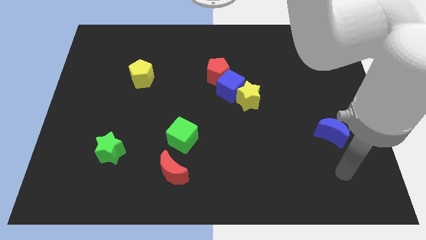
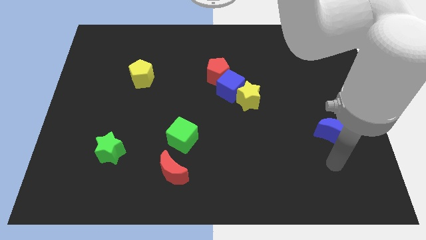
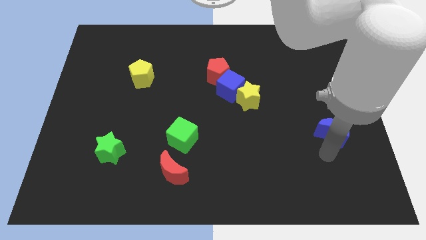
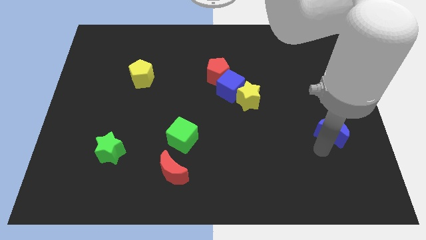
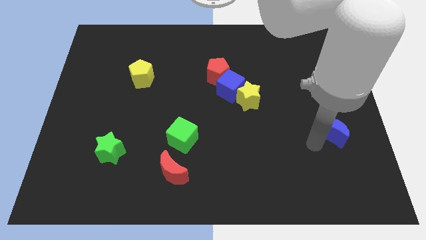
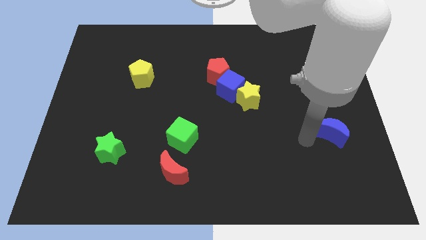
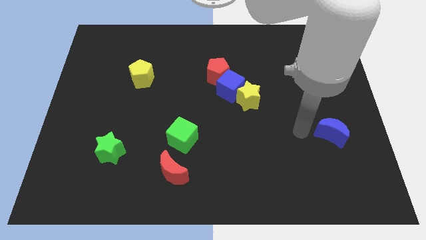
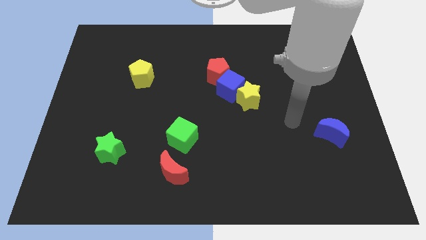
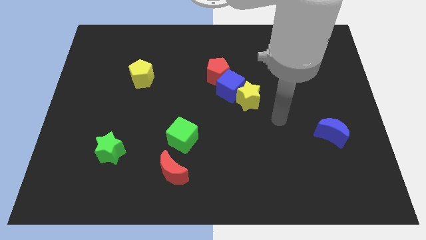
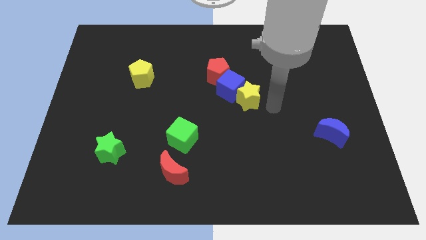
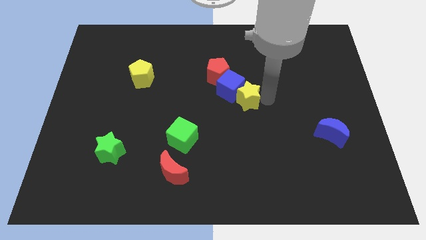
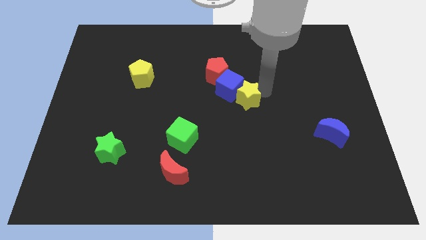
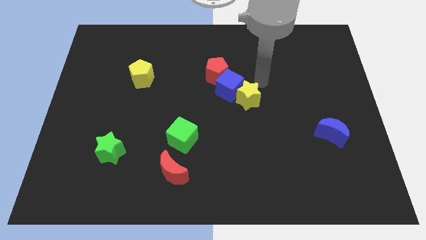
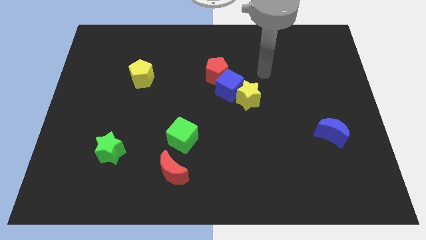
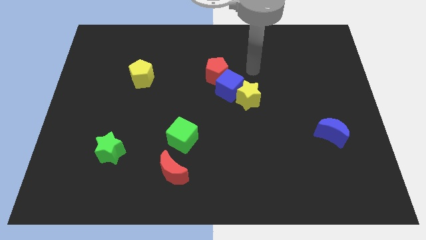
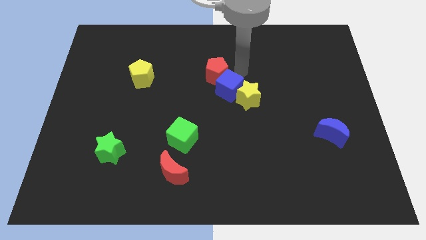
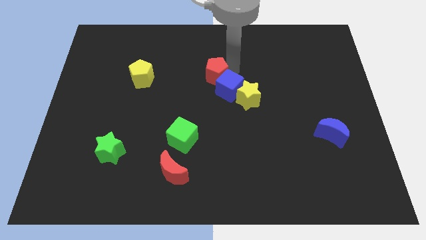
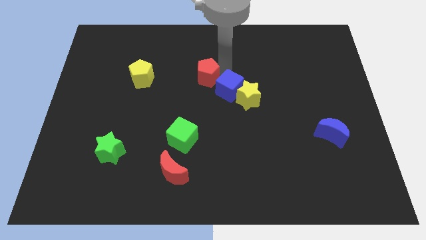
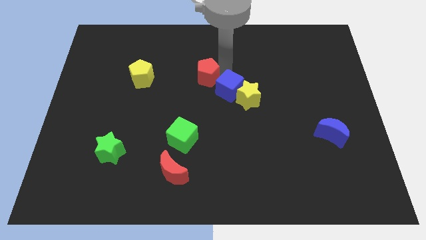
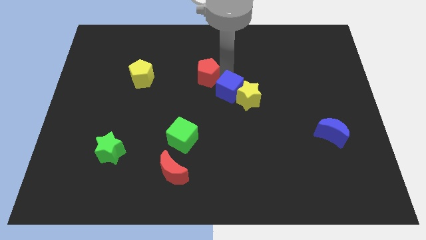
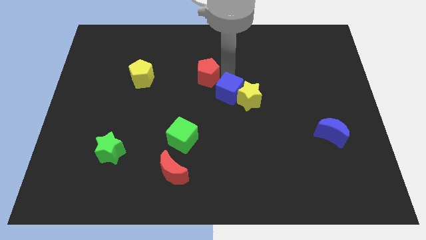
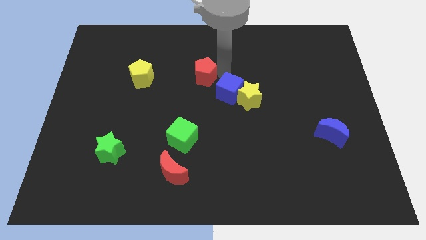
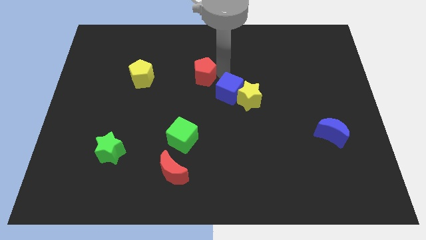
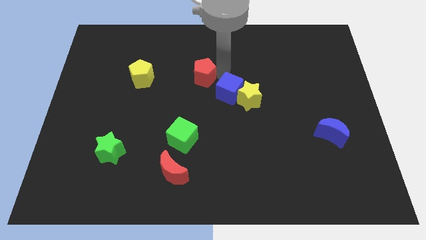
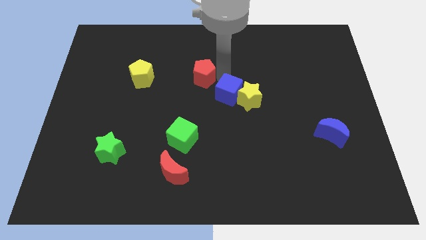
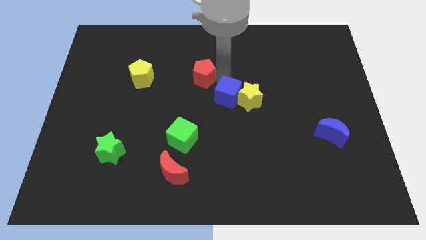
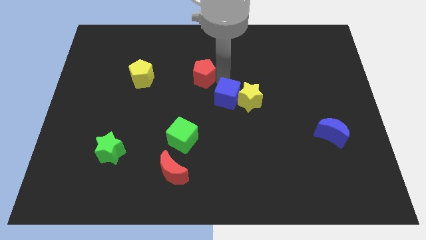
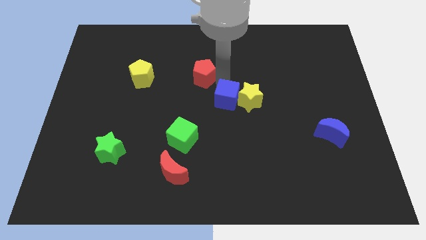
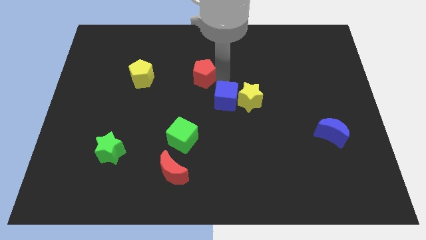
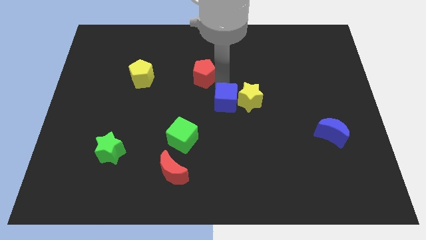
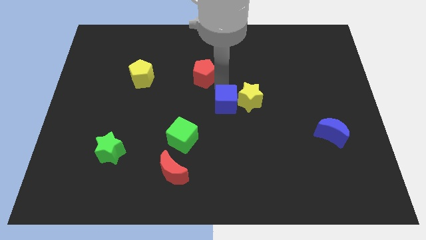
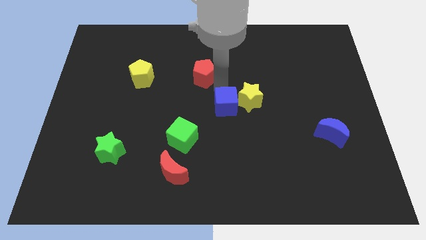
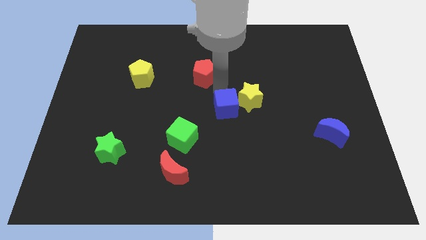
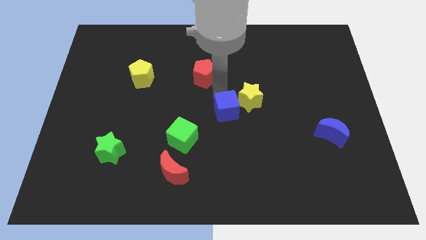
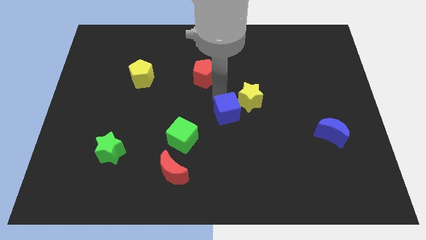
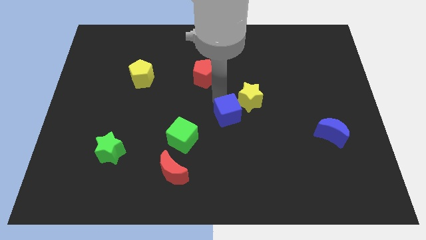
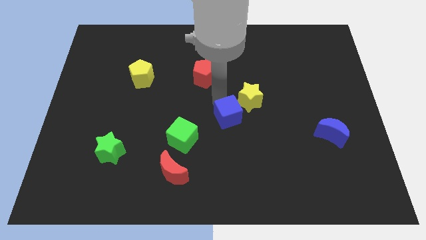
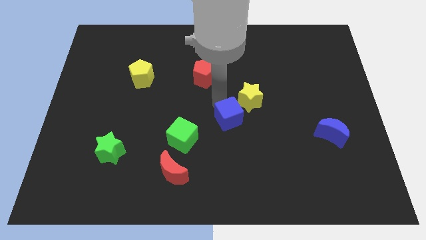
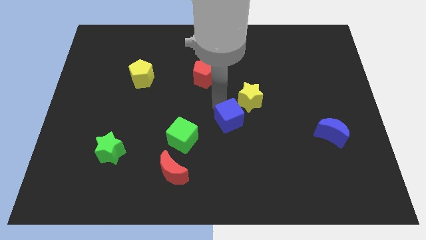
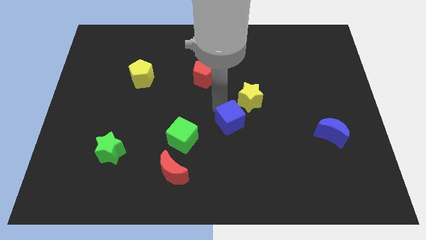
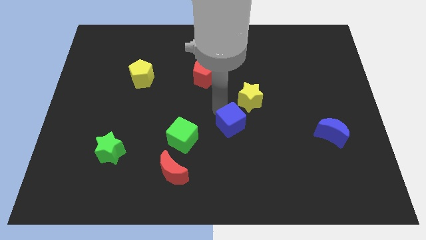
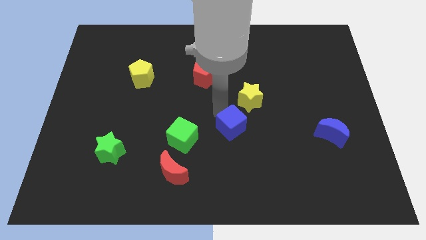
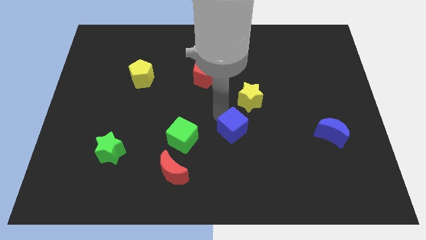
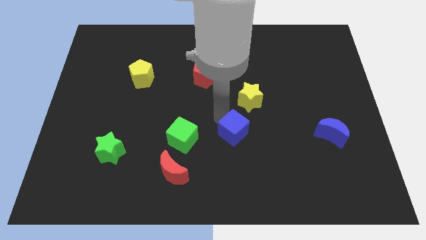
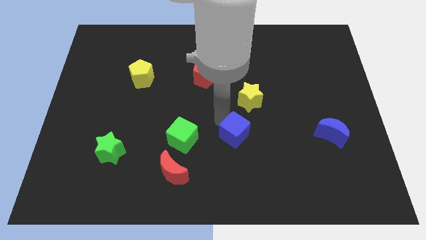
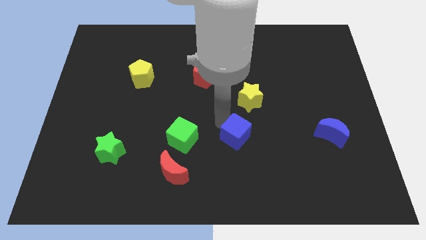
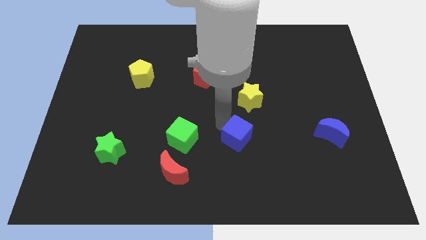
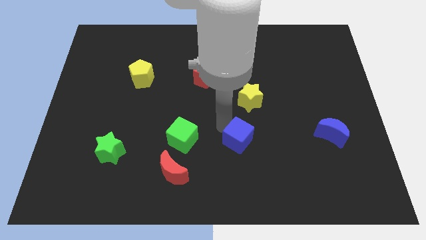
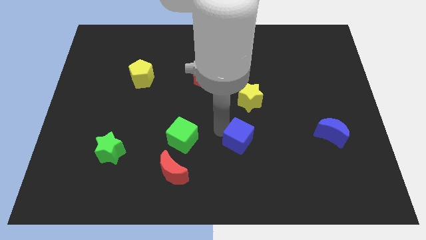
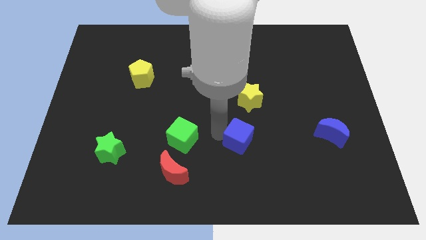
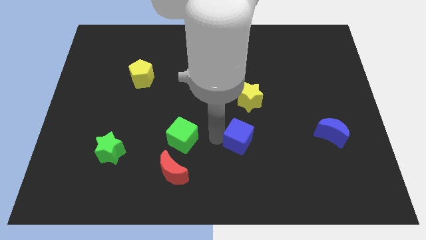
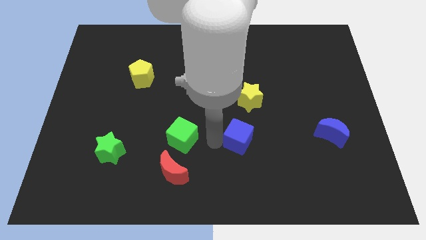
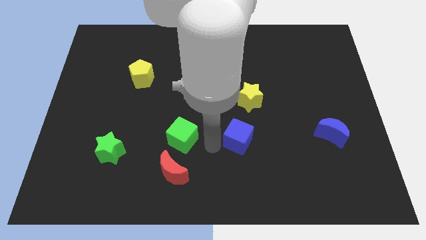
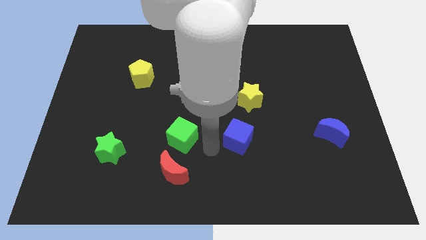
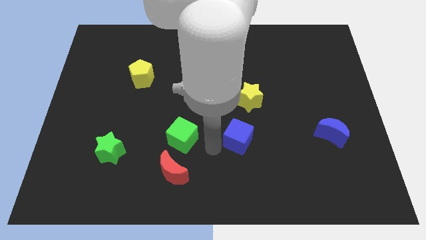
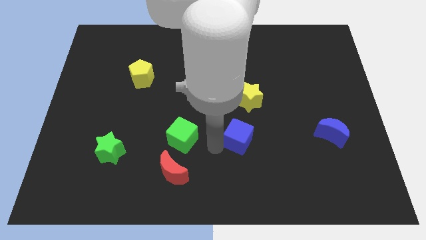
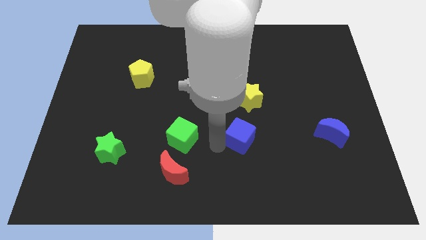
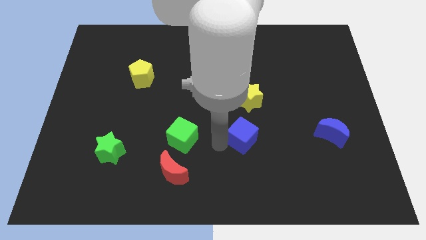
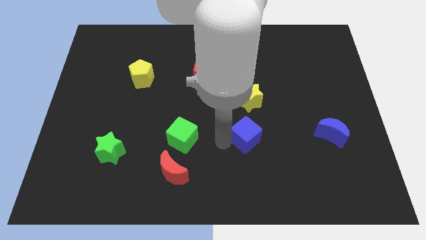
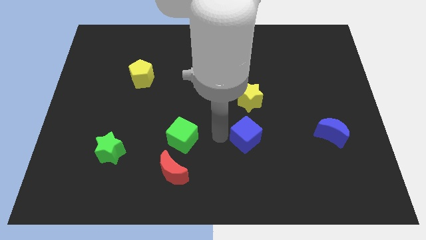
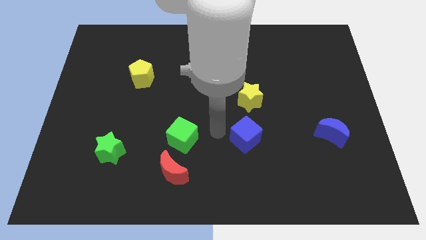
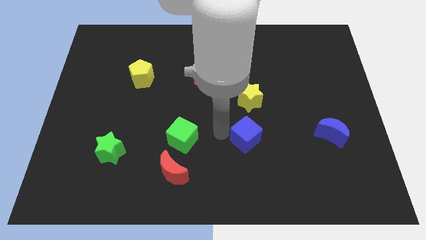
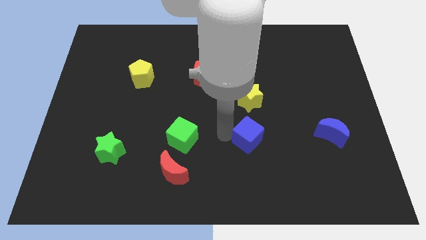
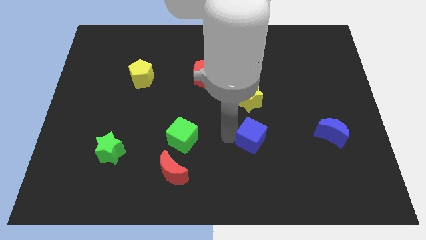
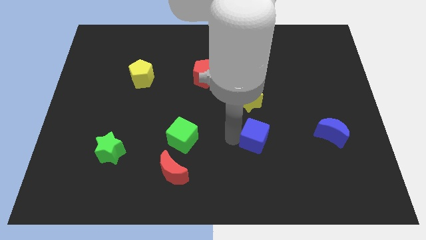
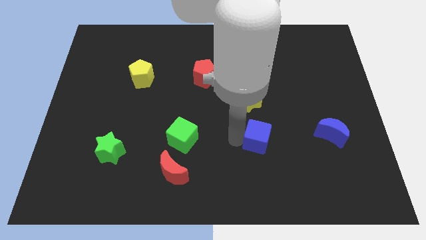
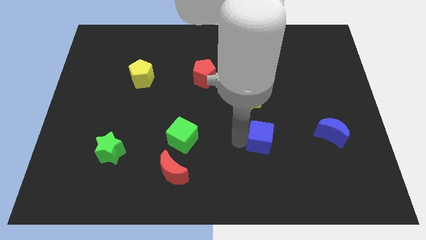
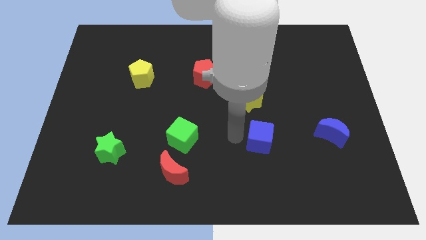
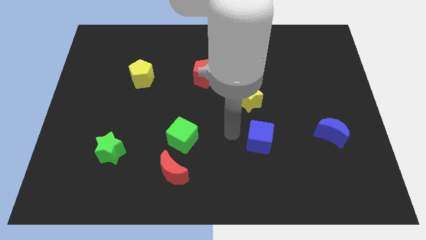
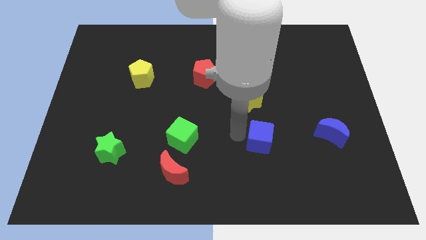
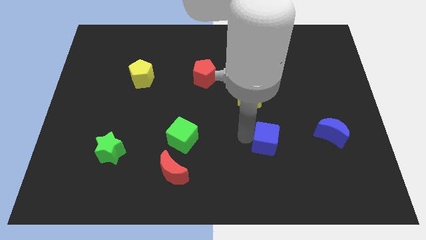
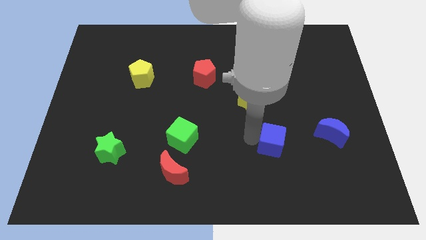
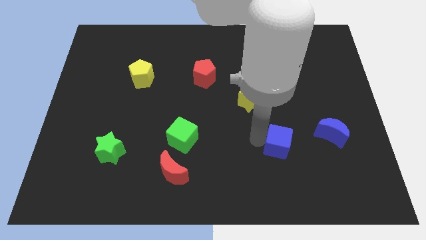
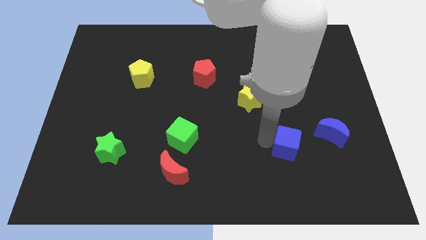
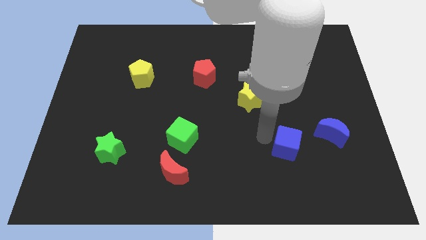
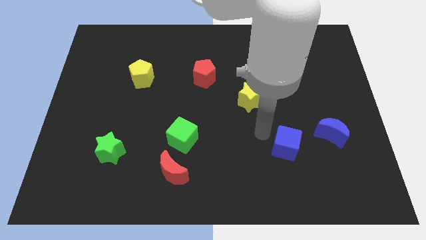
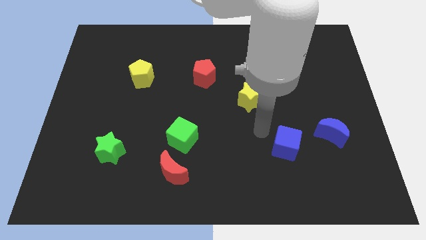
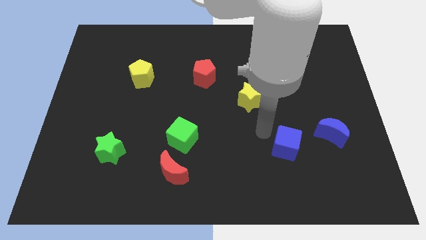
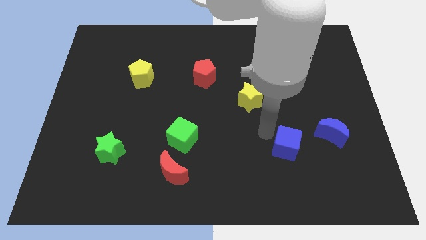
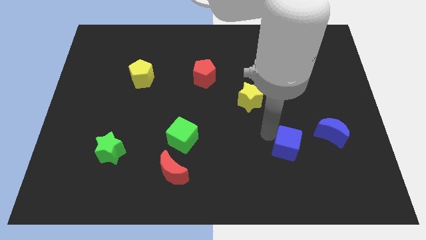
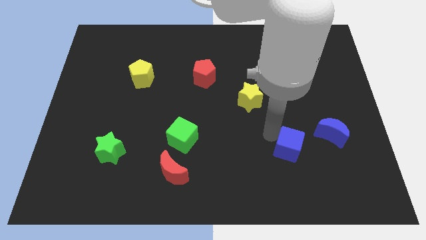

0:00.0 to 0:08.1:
slide the blue cube diagonally down and to the right
